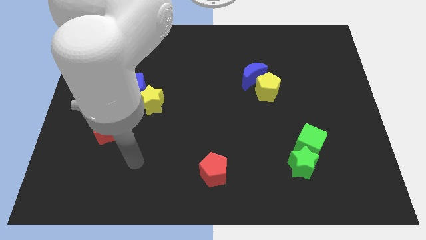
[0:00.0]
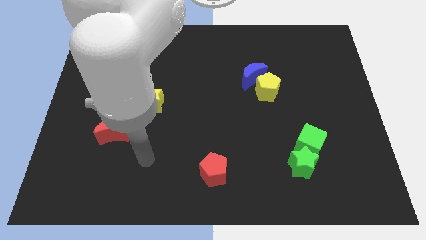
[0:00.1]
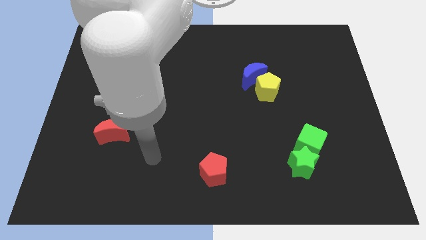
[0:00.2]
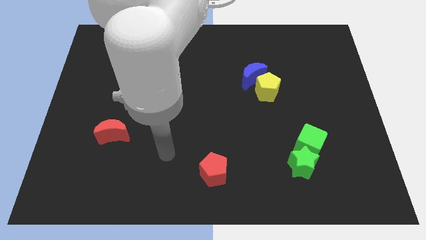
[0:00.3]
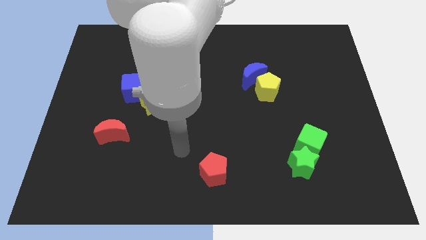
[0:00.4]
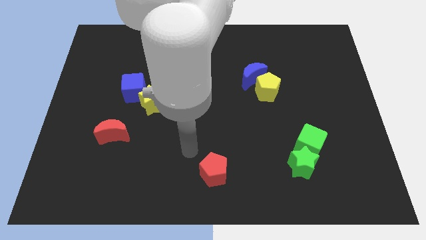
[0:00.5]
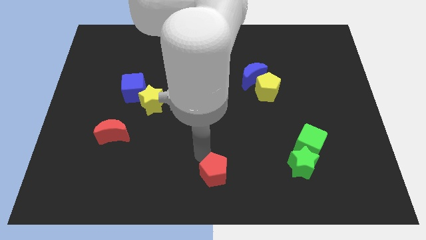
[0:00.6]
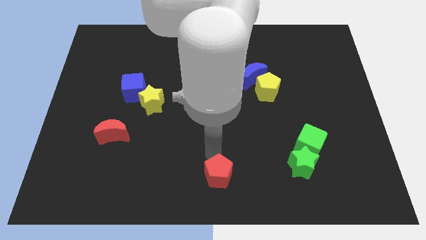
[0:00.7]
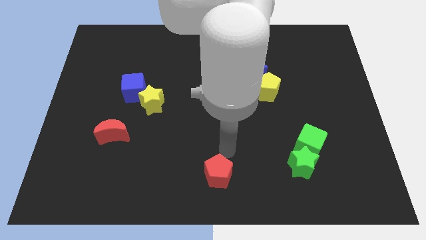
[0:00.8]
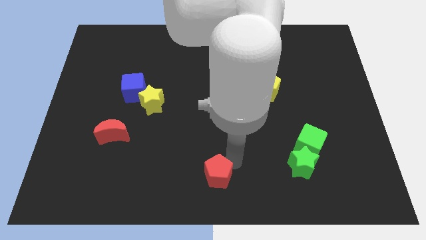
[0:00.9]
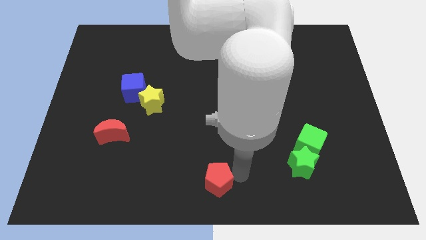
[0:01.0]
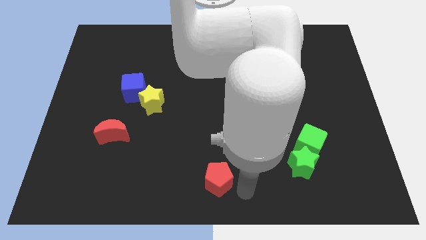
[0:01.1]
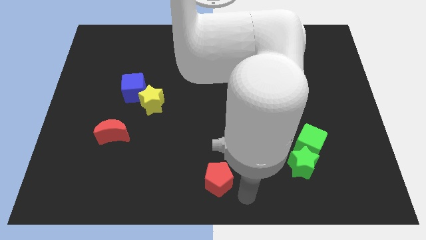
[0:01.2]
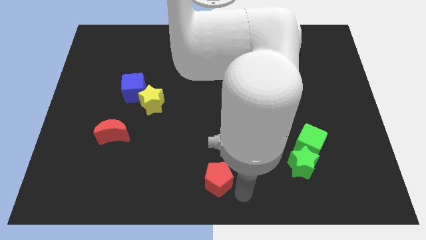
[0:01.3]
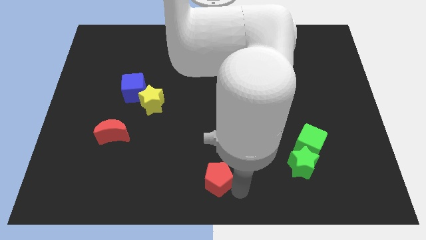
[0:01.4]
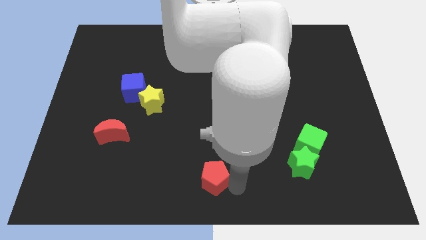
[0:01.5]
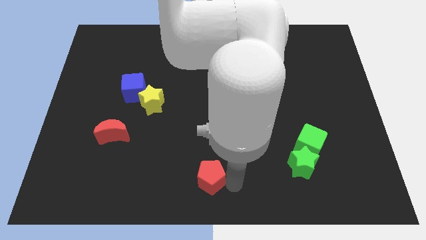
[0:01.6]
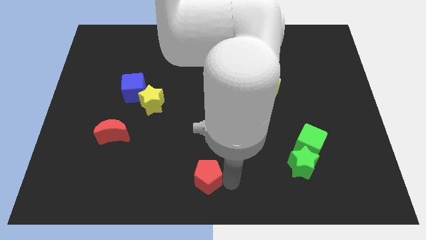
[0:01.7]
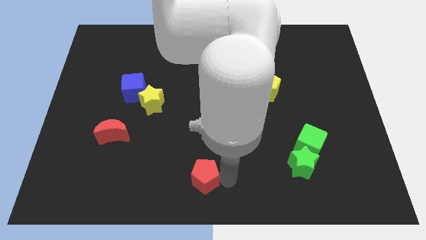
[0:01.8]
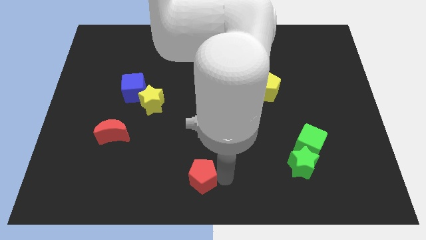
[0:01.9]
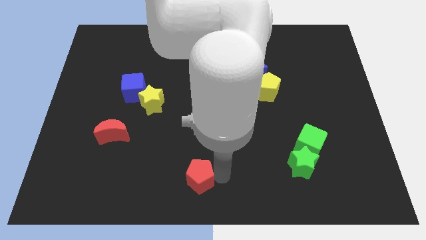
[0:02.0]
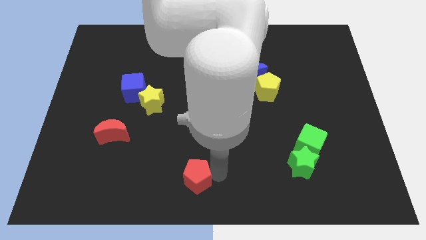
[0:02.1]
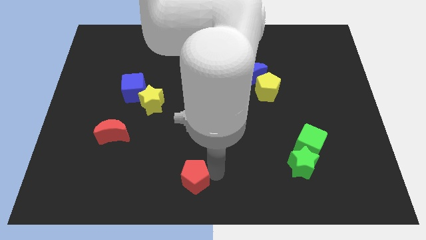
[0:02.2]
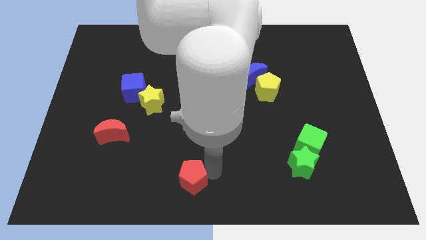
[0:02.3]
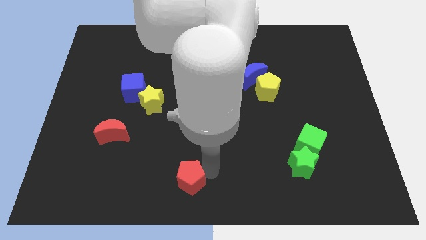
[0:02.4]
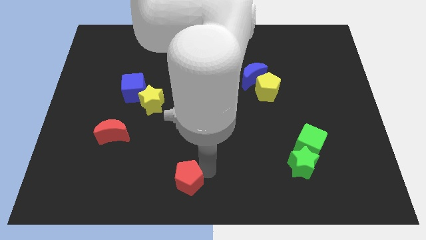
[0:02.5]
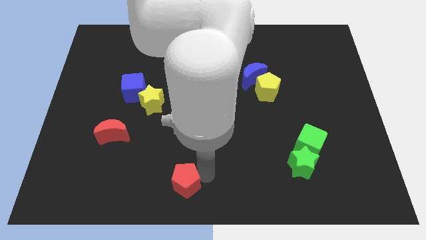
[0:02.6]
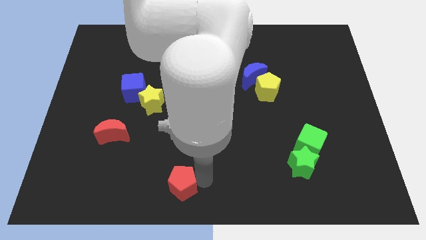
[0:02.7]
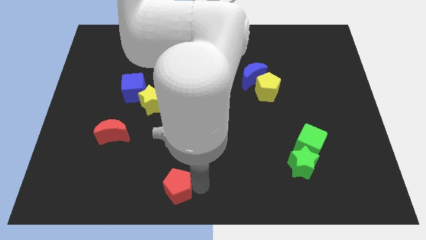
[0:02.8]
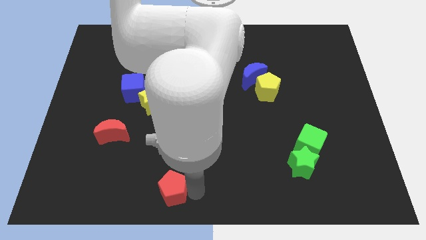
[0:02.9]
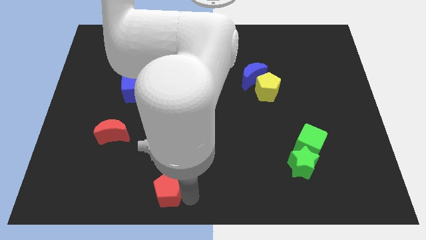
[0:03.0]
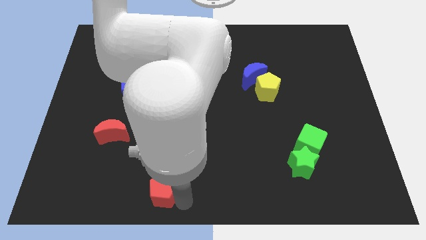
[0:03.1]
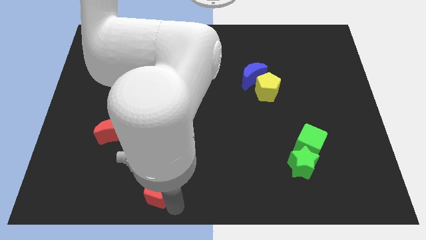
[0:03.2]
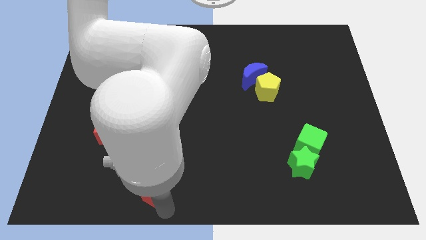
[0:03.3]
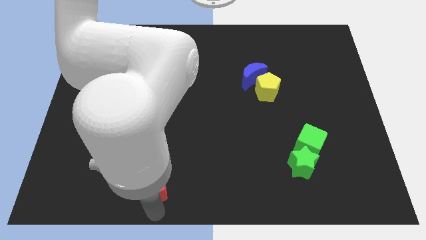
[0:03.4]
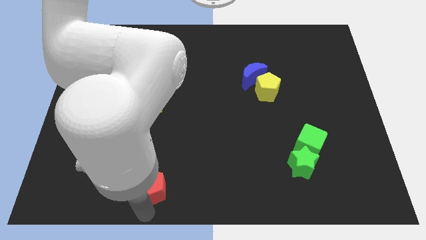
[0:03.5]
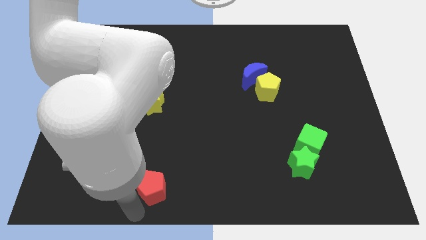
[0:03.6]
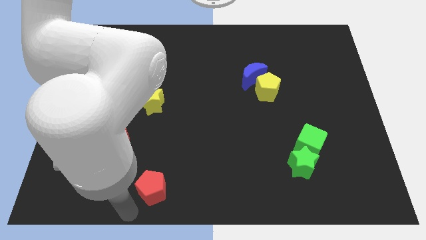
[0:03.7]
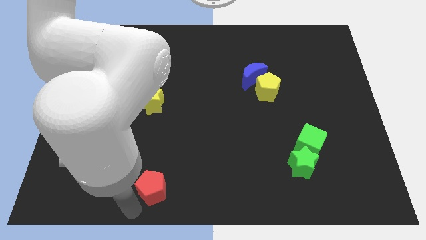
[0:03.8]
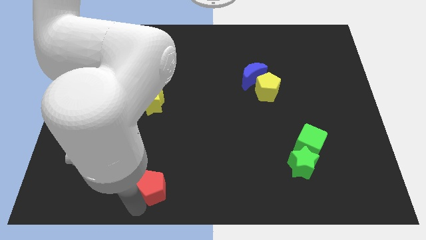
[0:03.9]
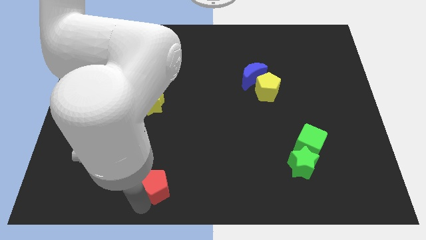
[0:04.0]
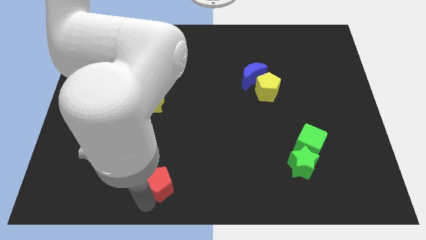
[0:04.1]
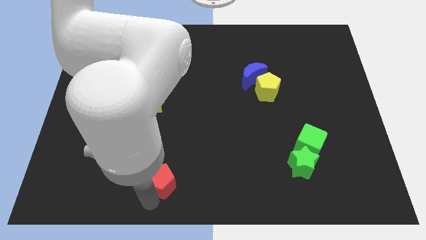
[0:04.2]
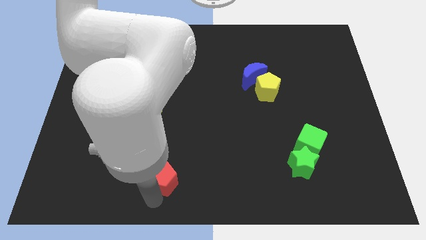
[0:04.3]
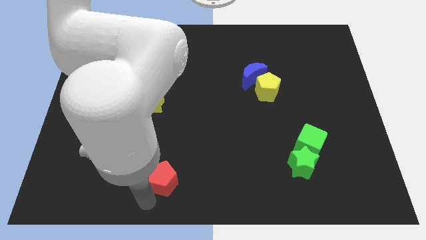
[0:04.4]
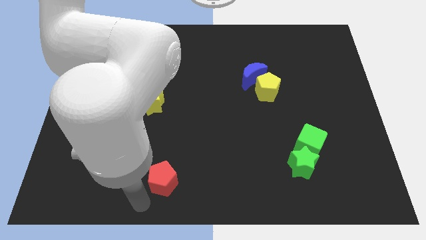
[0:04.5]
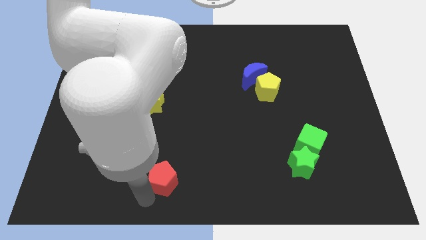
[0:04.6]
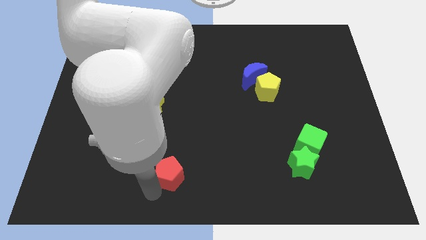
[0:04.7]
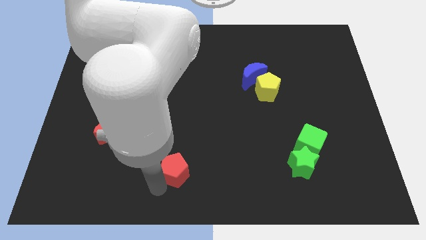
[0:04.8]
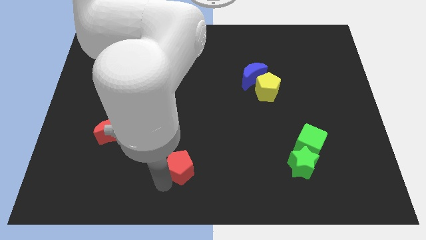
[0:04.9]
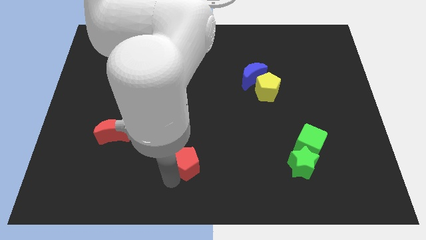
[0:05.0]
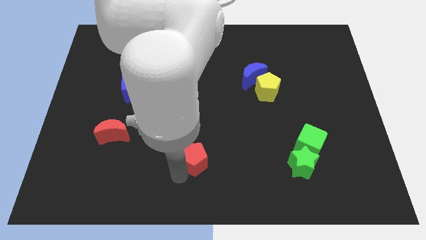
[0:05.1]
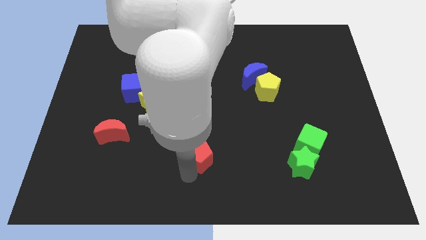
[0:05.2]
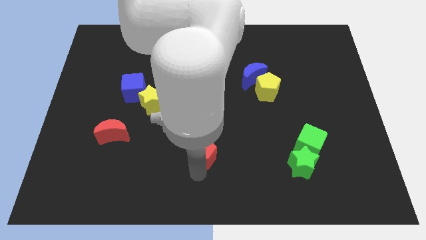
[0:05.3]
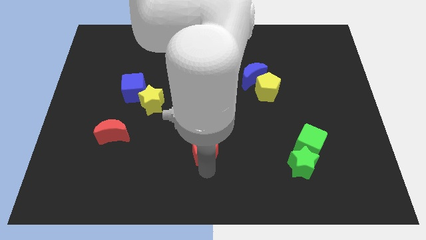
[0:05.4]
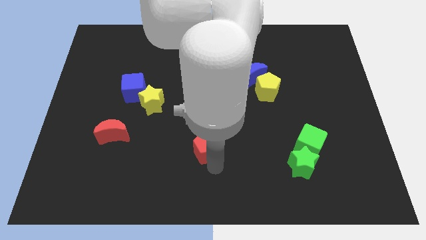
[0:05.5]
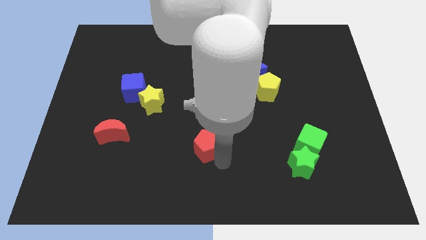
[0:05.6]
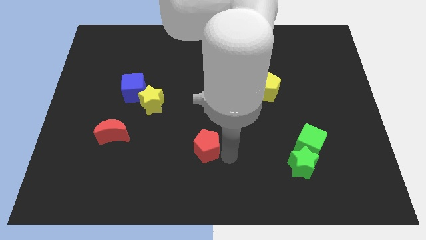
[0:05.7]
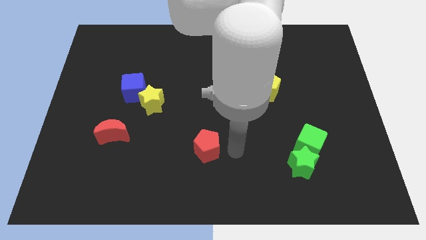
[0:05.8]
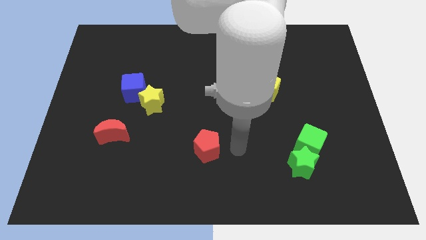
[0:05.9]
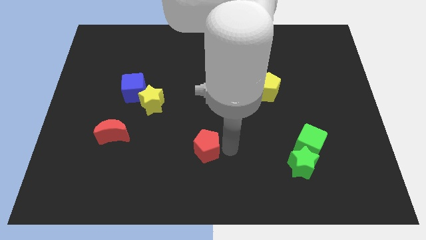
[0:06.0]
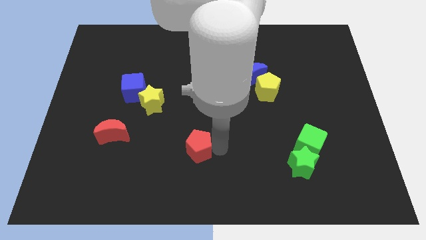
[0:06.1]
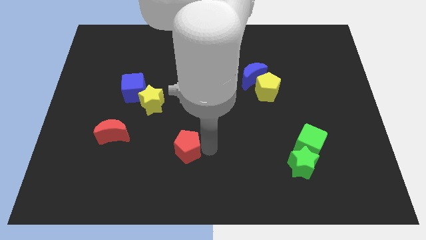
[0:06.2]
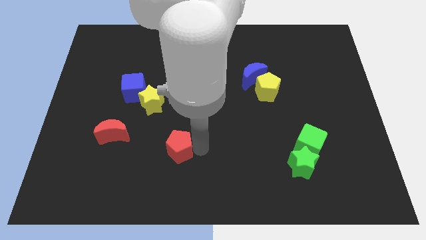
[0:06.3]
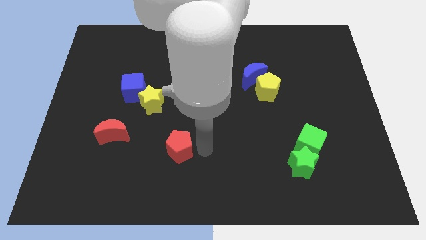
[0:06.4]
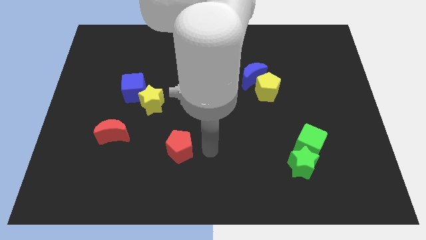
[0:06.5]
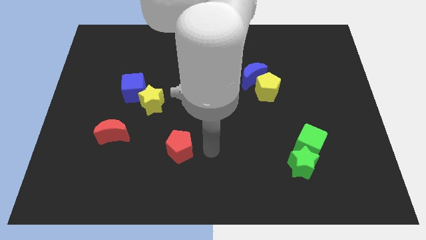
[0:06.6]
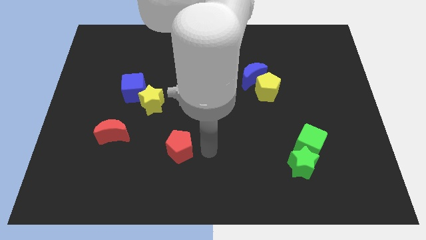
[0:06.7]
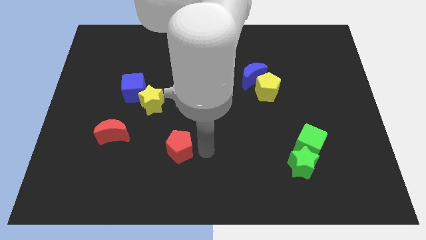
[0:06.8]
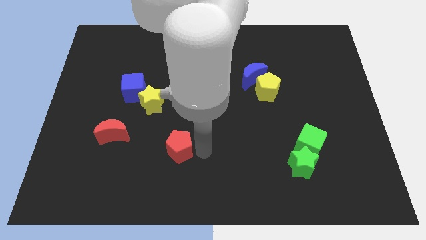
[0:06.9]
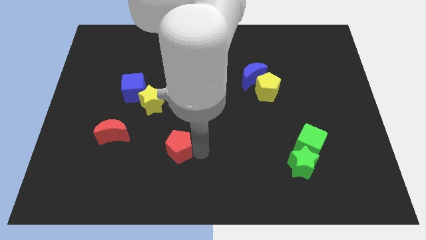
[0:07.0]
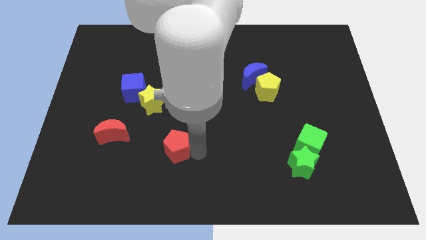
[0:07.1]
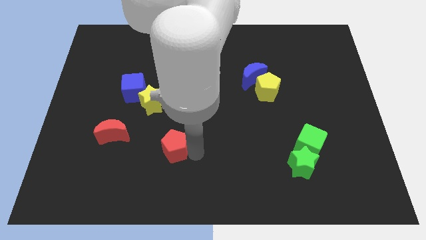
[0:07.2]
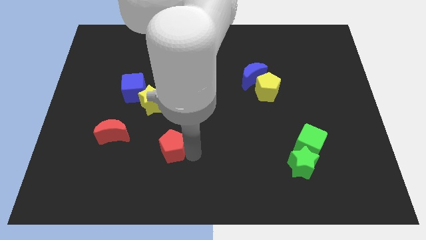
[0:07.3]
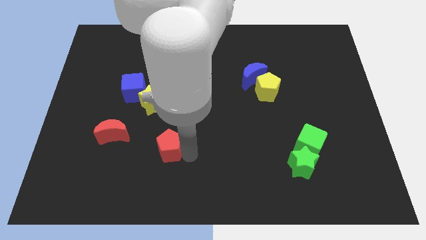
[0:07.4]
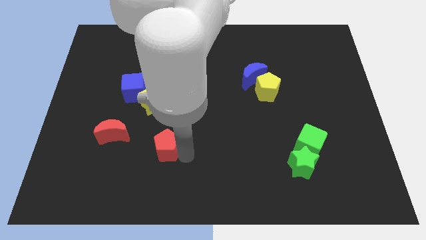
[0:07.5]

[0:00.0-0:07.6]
move the red pentagon to the bottom of the yellow star
